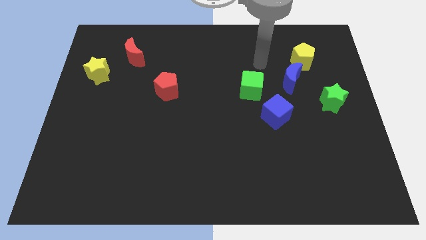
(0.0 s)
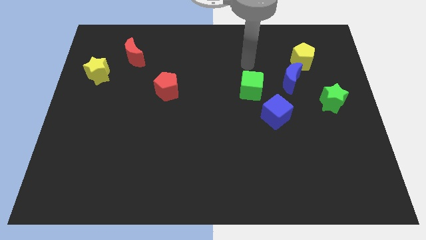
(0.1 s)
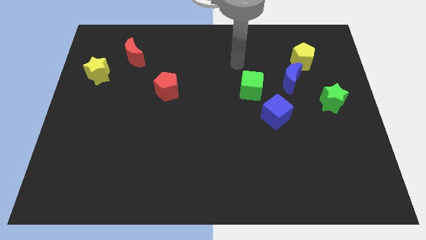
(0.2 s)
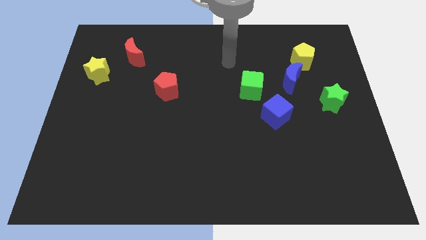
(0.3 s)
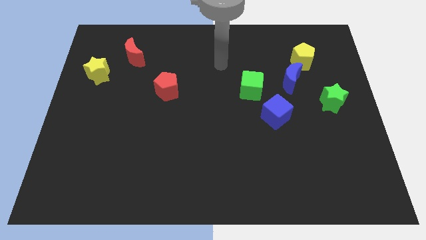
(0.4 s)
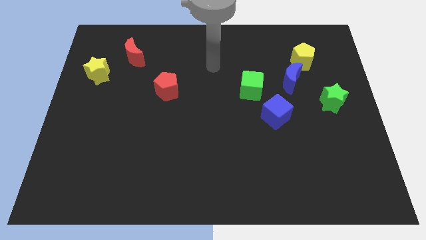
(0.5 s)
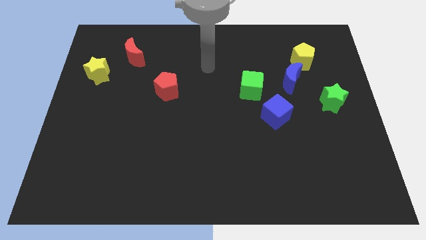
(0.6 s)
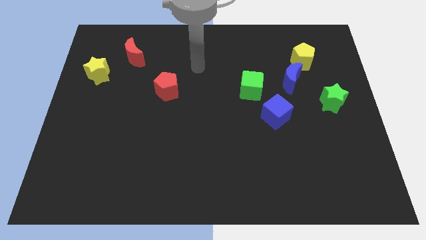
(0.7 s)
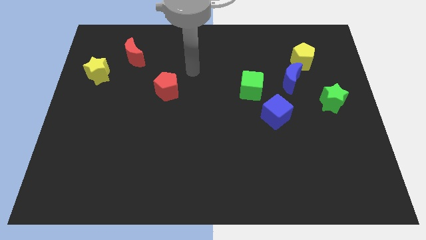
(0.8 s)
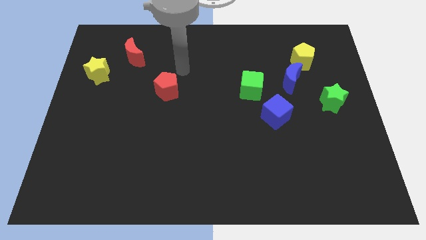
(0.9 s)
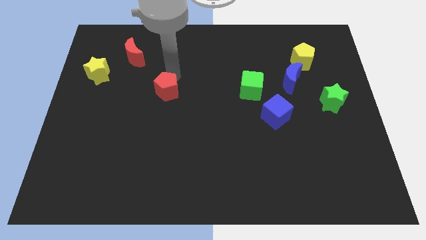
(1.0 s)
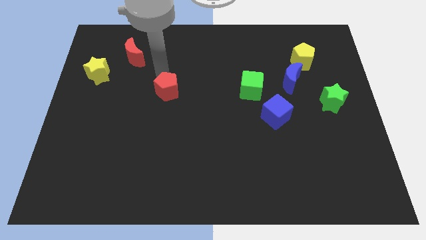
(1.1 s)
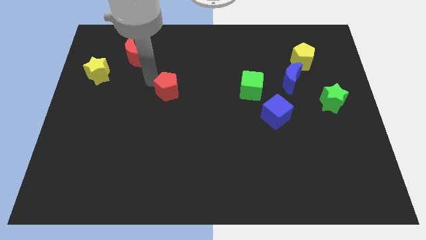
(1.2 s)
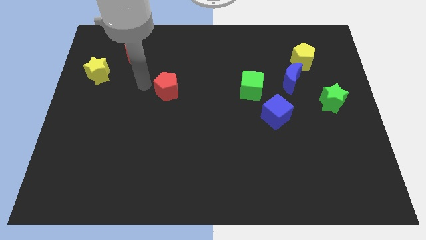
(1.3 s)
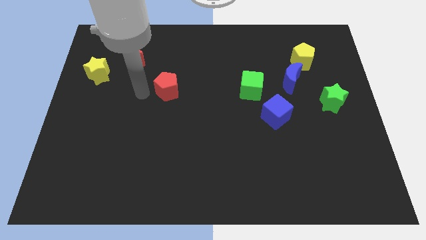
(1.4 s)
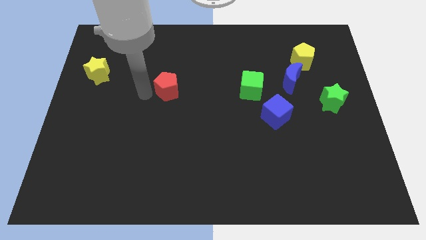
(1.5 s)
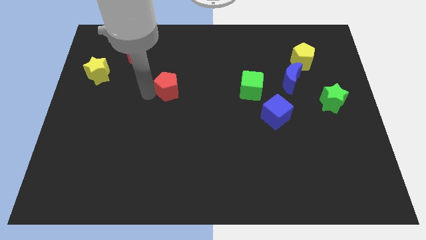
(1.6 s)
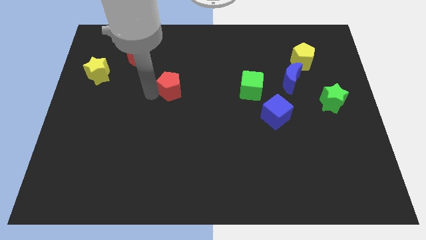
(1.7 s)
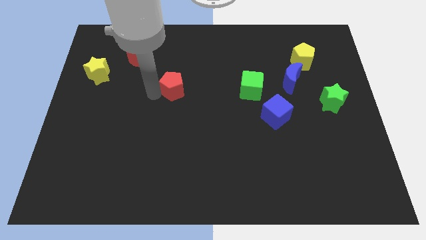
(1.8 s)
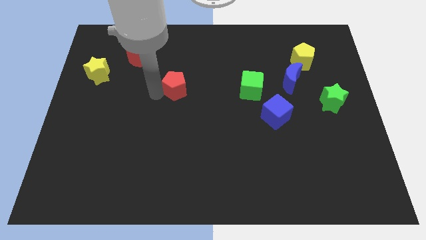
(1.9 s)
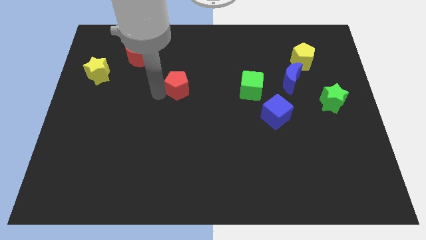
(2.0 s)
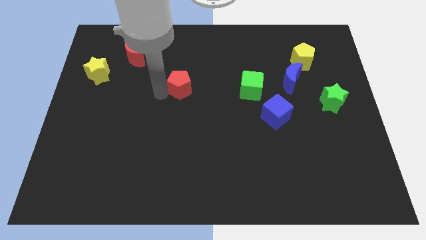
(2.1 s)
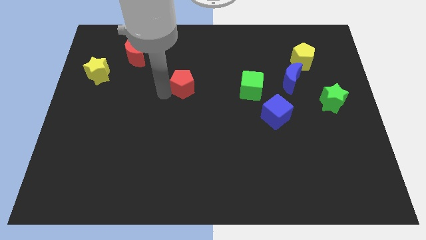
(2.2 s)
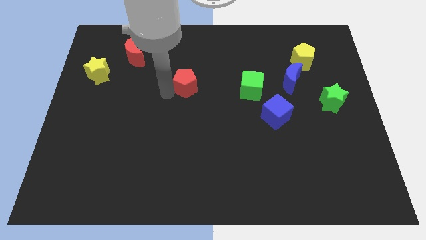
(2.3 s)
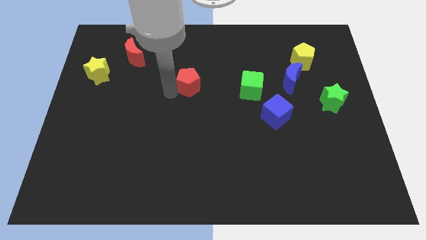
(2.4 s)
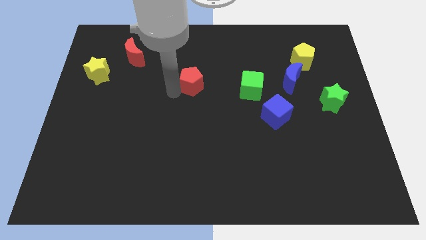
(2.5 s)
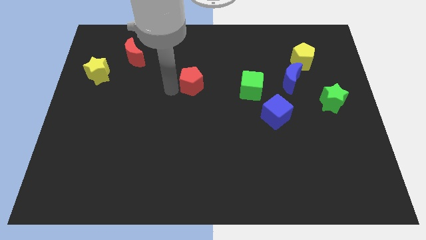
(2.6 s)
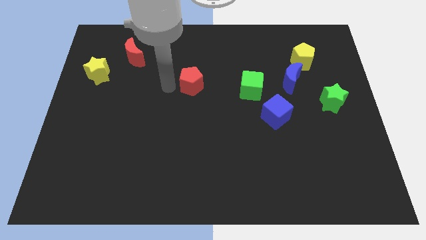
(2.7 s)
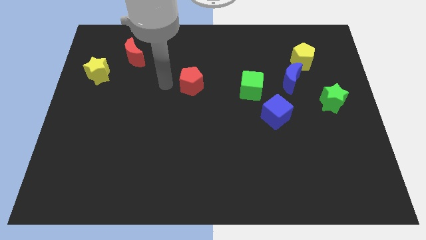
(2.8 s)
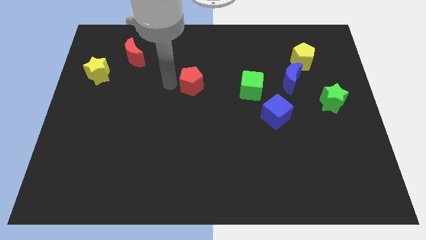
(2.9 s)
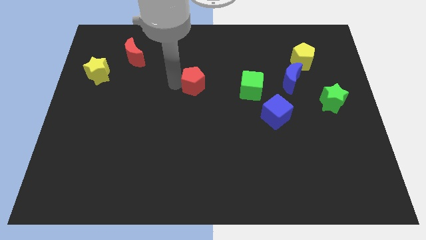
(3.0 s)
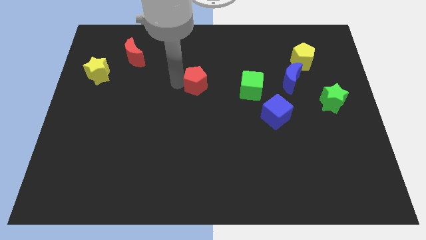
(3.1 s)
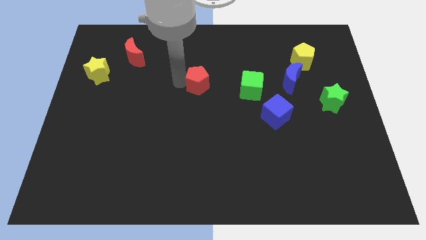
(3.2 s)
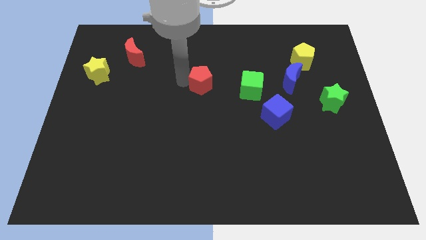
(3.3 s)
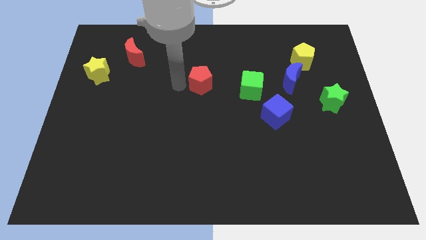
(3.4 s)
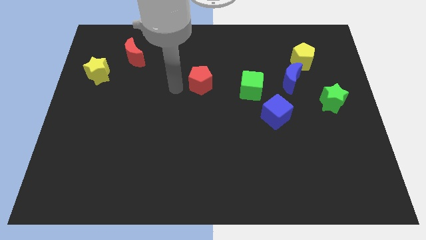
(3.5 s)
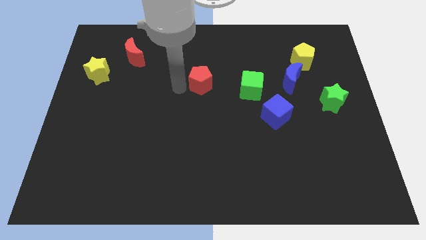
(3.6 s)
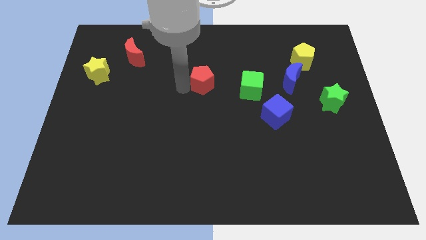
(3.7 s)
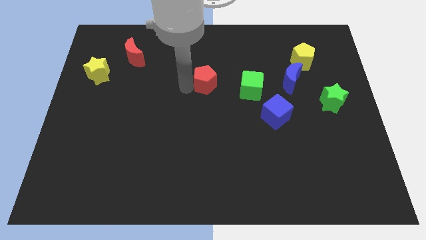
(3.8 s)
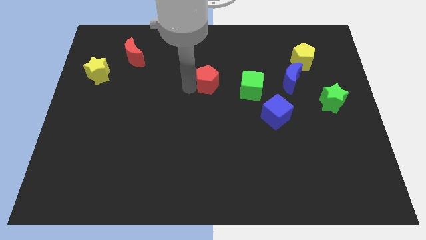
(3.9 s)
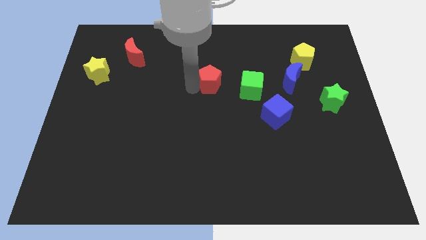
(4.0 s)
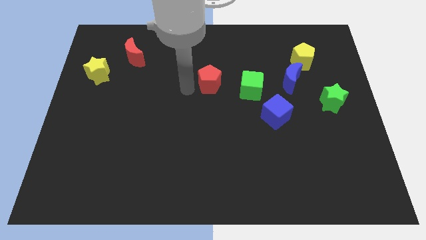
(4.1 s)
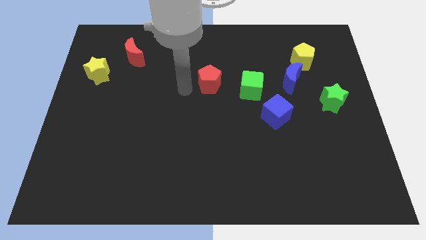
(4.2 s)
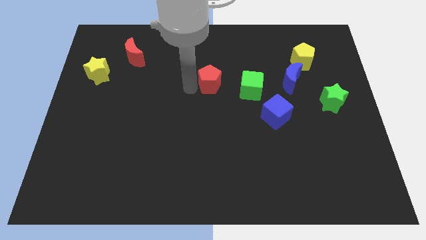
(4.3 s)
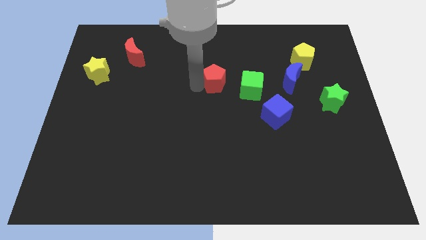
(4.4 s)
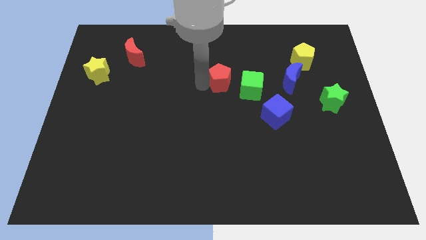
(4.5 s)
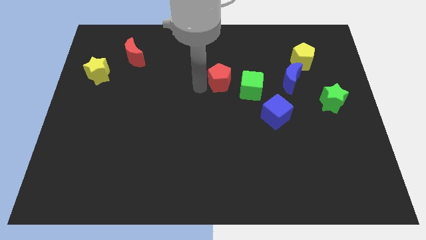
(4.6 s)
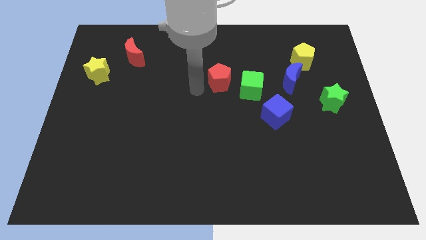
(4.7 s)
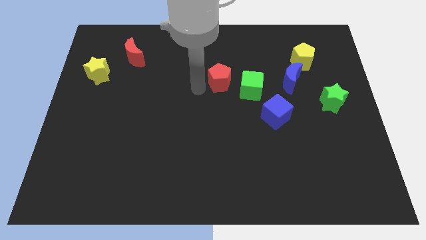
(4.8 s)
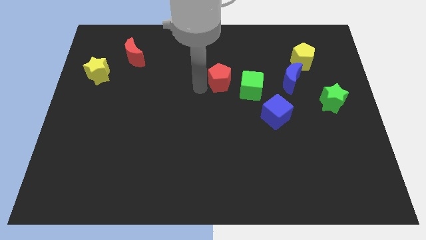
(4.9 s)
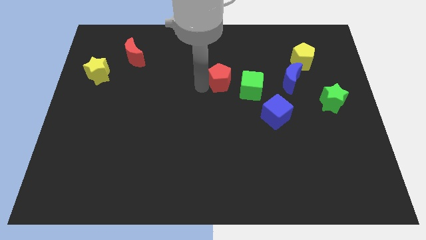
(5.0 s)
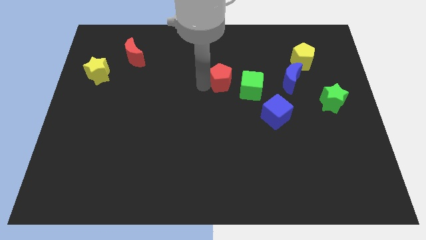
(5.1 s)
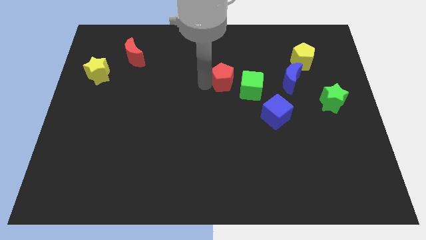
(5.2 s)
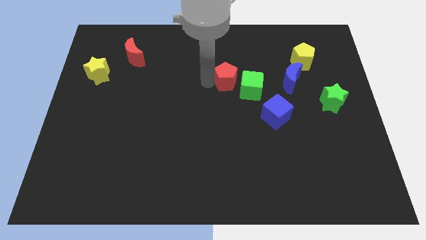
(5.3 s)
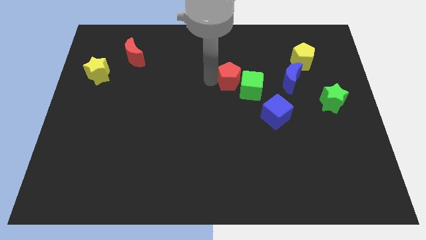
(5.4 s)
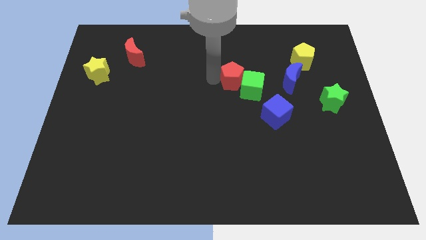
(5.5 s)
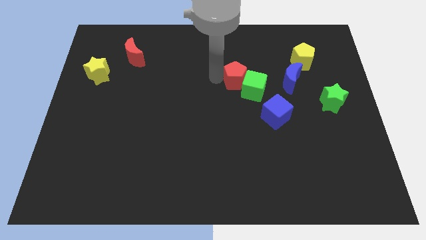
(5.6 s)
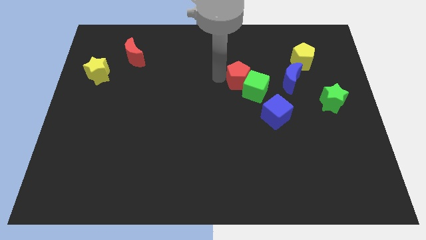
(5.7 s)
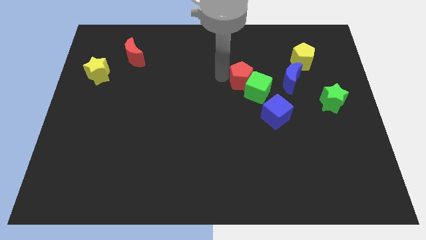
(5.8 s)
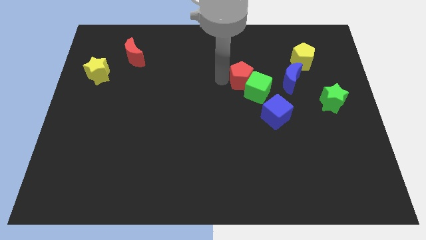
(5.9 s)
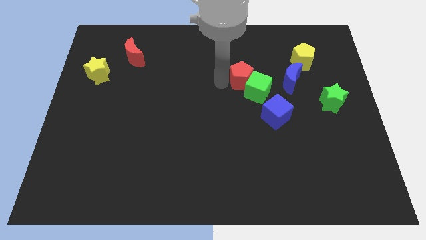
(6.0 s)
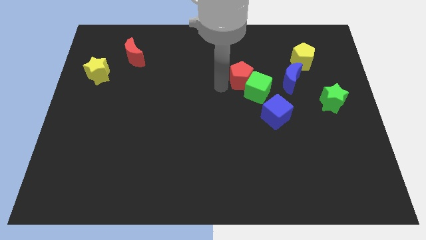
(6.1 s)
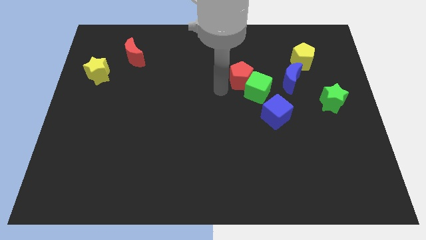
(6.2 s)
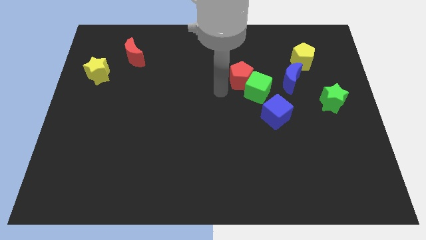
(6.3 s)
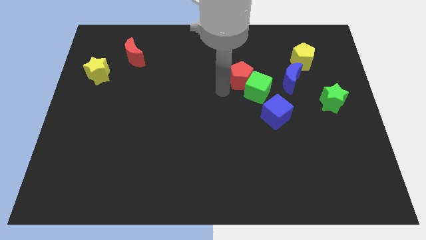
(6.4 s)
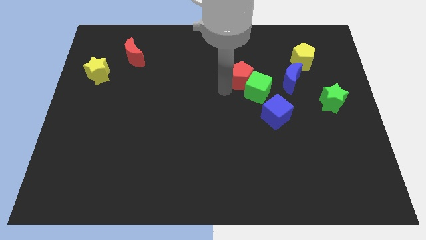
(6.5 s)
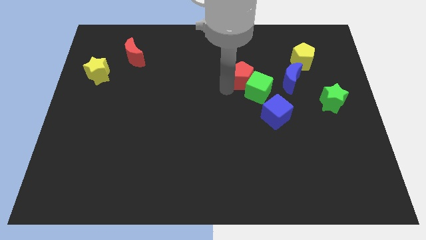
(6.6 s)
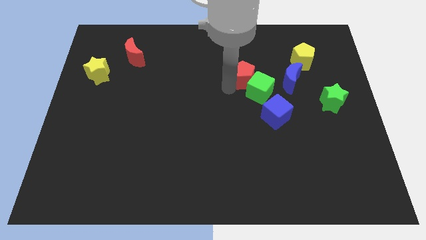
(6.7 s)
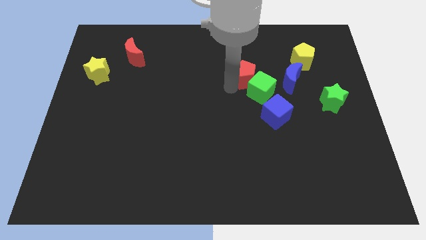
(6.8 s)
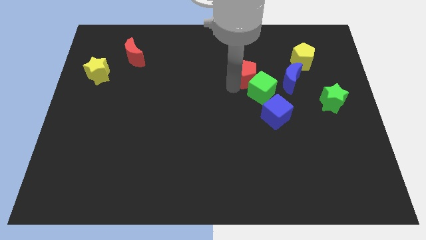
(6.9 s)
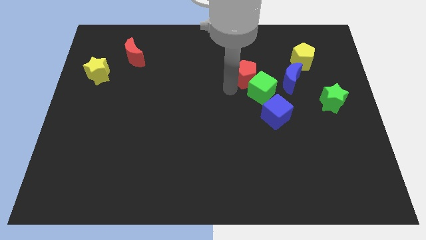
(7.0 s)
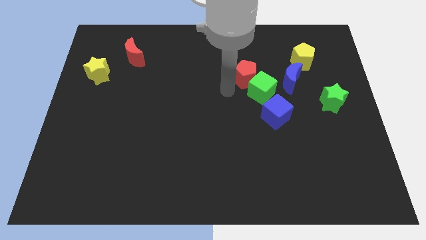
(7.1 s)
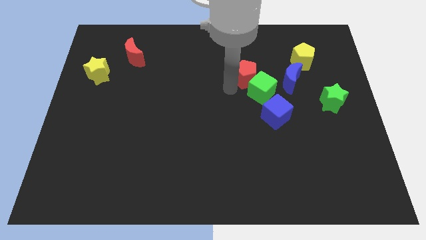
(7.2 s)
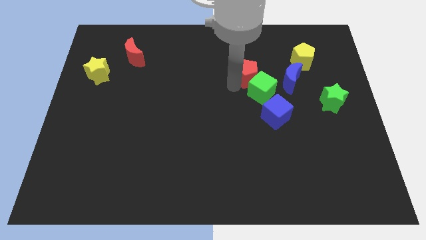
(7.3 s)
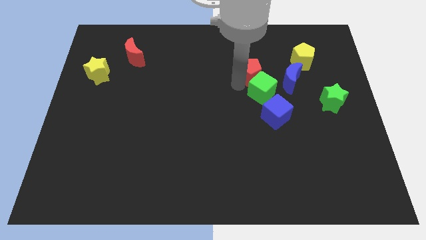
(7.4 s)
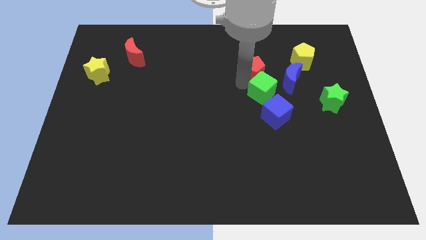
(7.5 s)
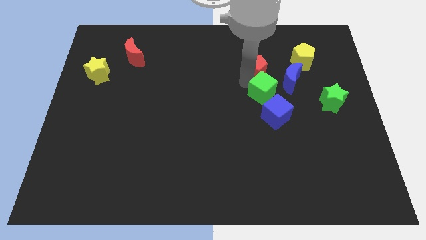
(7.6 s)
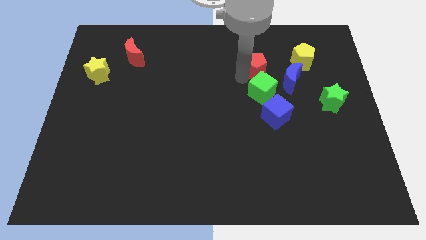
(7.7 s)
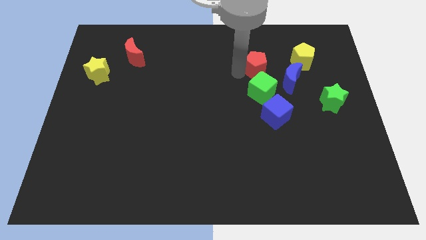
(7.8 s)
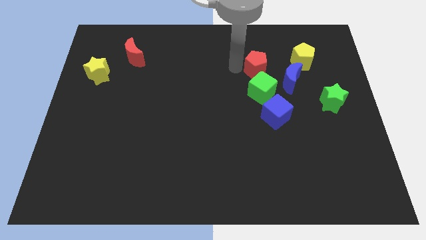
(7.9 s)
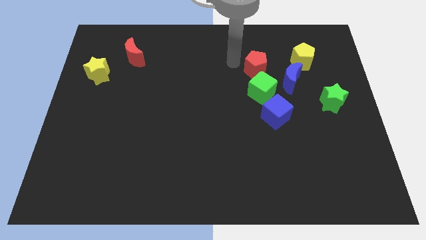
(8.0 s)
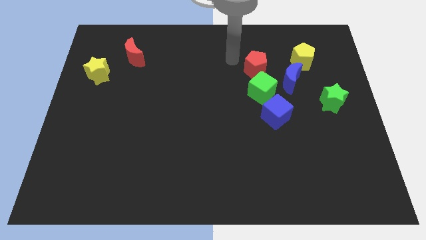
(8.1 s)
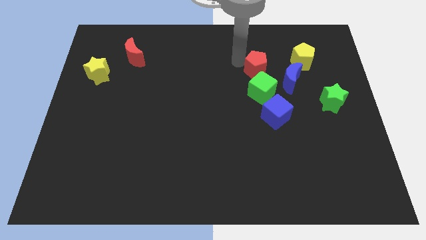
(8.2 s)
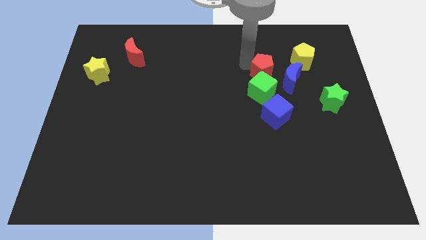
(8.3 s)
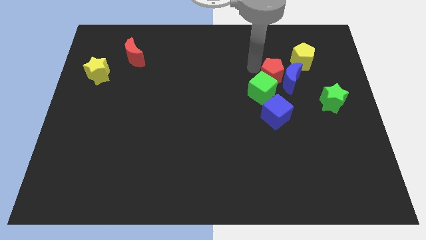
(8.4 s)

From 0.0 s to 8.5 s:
slide the red pentagon close to the blue moon
